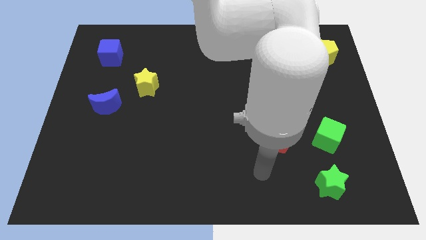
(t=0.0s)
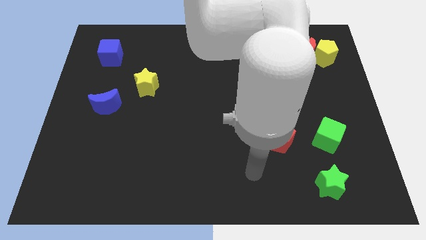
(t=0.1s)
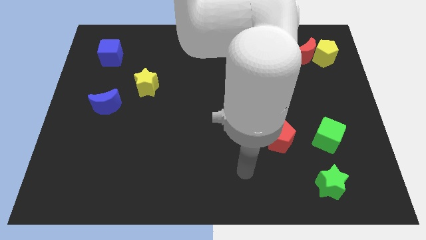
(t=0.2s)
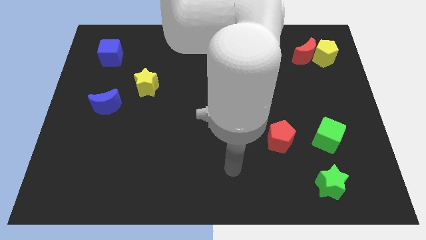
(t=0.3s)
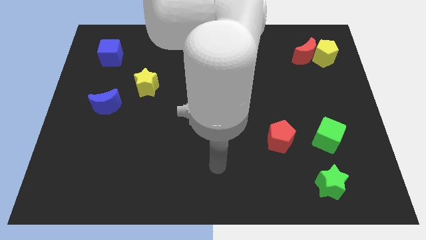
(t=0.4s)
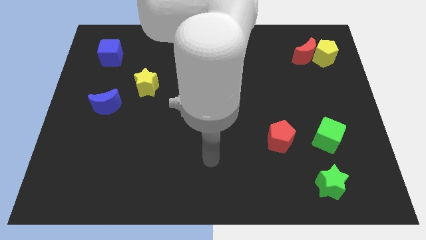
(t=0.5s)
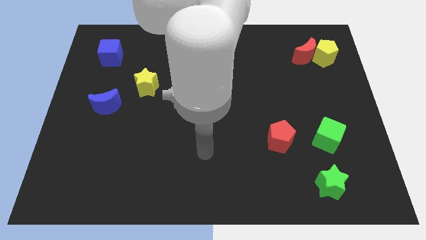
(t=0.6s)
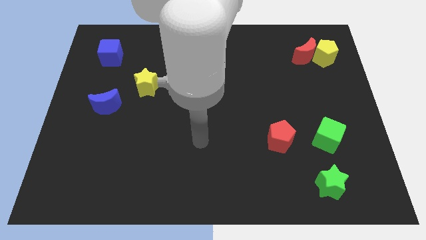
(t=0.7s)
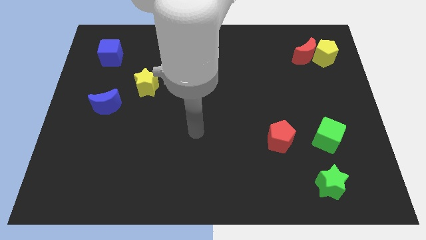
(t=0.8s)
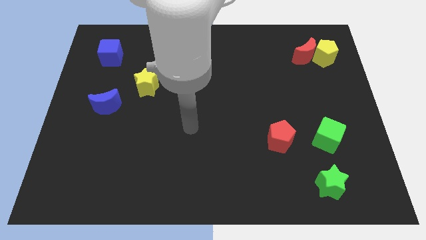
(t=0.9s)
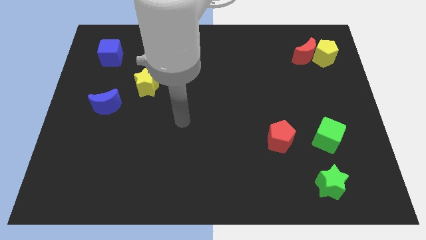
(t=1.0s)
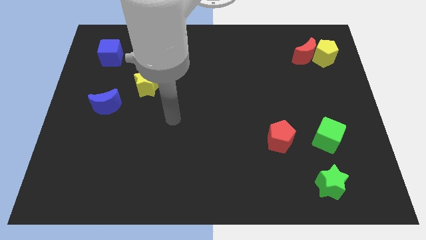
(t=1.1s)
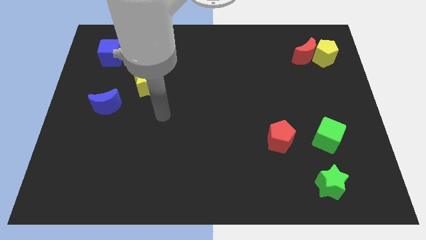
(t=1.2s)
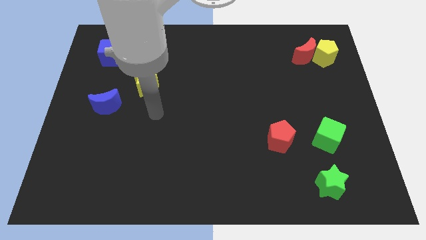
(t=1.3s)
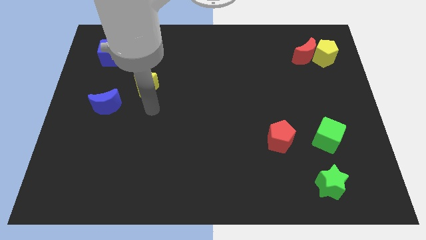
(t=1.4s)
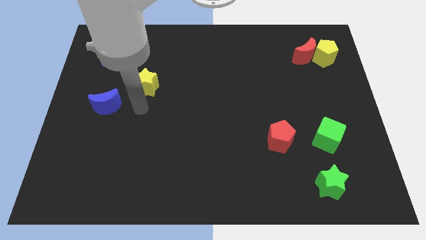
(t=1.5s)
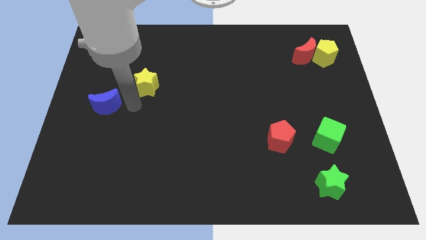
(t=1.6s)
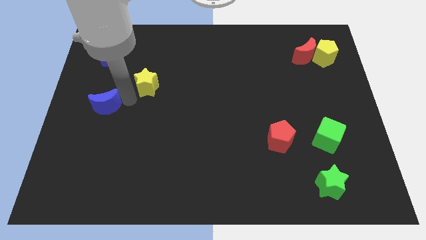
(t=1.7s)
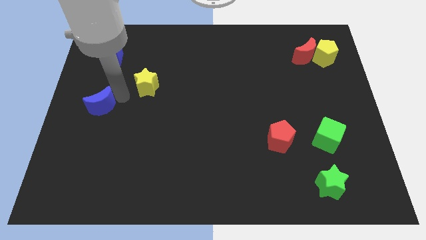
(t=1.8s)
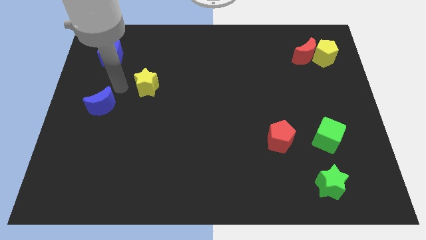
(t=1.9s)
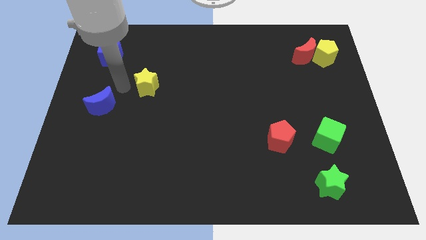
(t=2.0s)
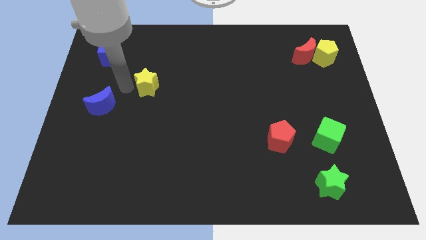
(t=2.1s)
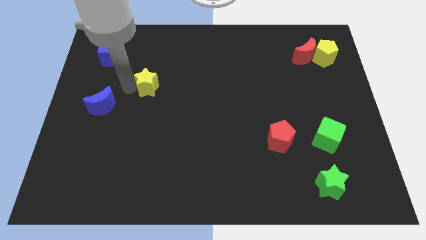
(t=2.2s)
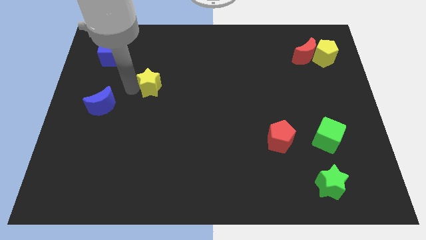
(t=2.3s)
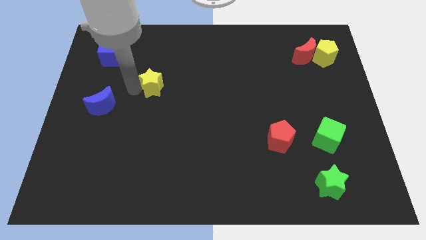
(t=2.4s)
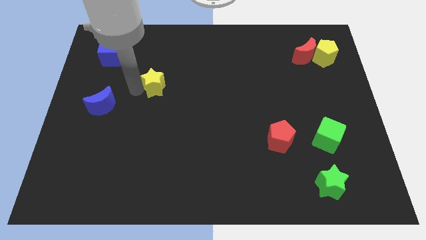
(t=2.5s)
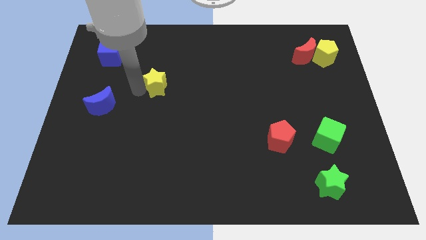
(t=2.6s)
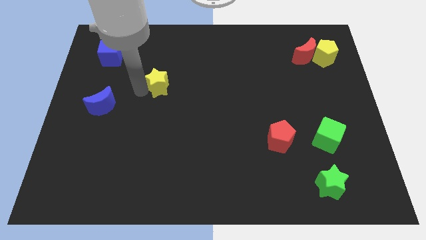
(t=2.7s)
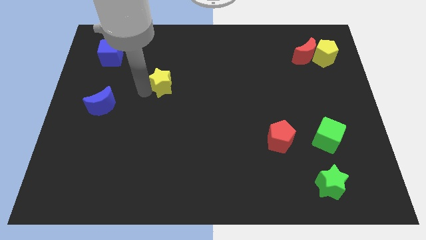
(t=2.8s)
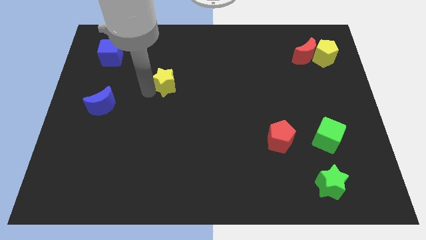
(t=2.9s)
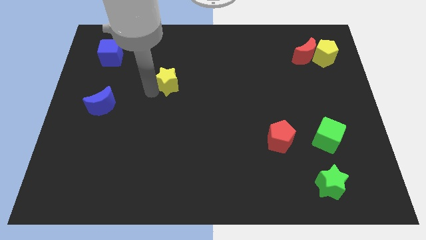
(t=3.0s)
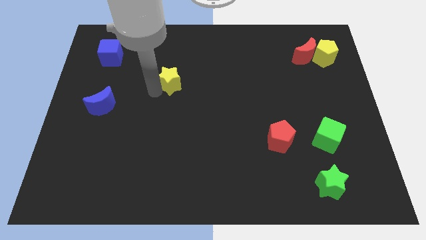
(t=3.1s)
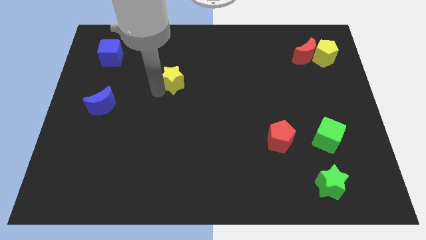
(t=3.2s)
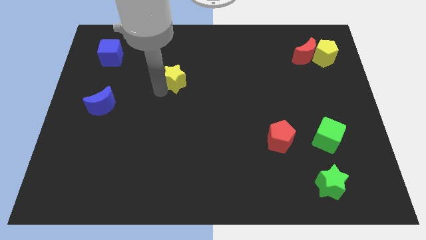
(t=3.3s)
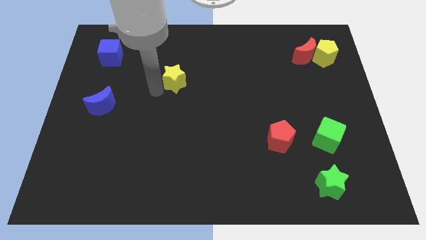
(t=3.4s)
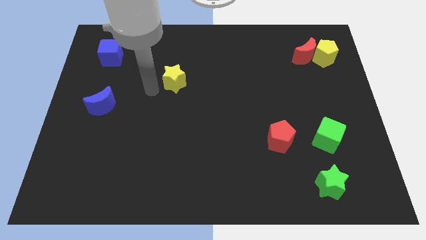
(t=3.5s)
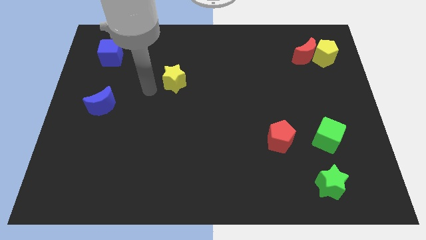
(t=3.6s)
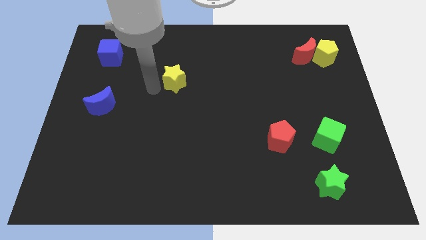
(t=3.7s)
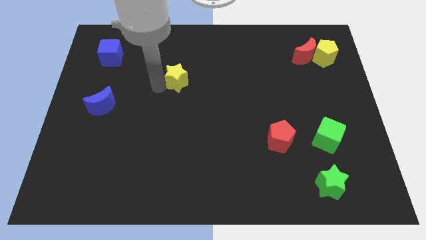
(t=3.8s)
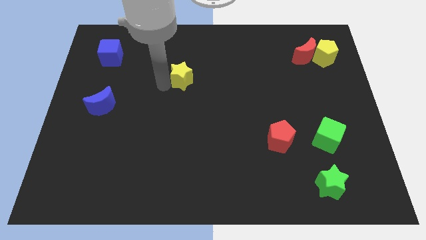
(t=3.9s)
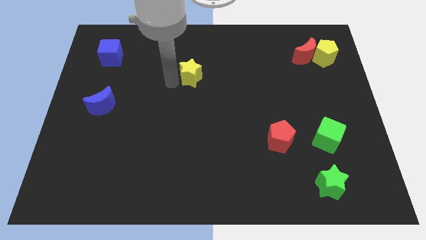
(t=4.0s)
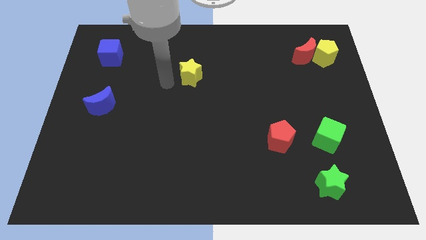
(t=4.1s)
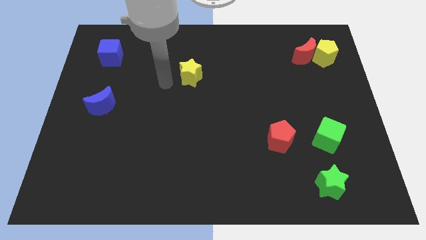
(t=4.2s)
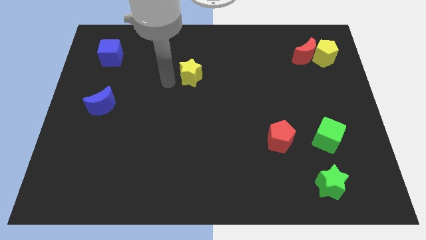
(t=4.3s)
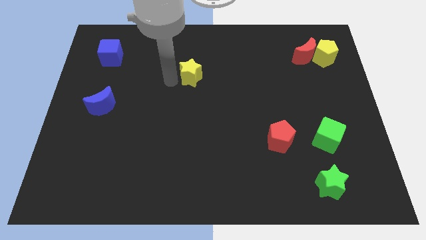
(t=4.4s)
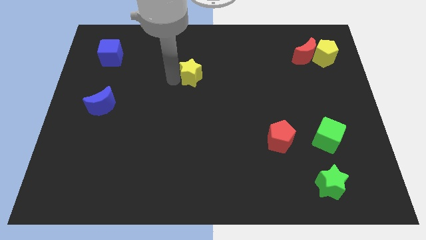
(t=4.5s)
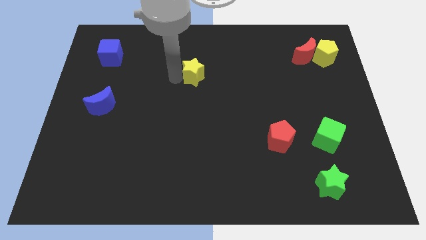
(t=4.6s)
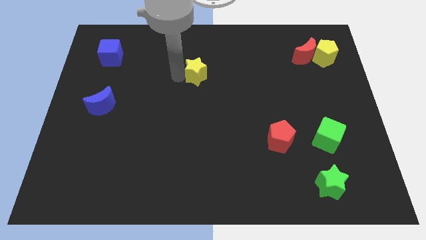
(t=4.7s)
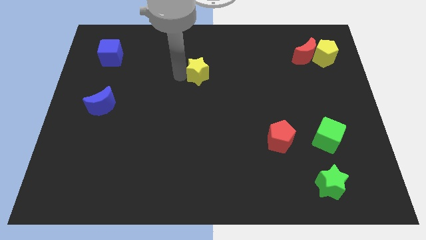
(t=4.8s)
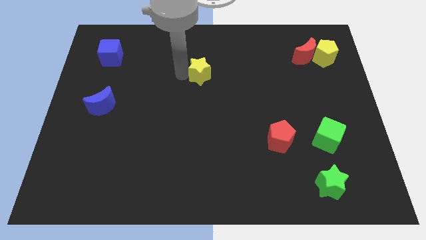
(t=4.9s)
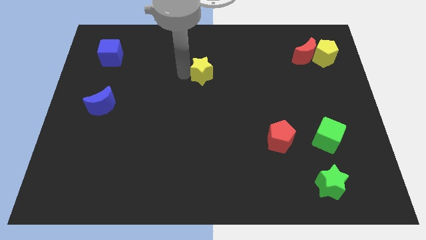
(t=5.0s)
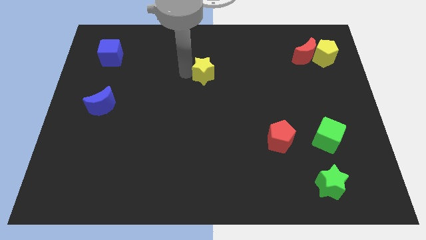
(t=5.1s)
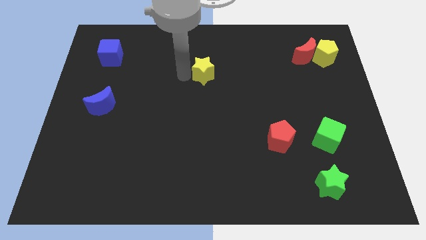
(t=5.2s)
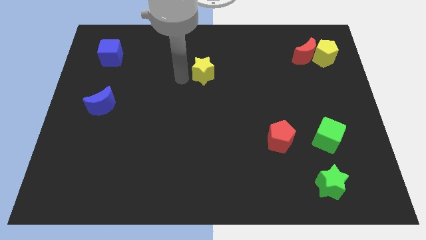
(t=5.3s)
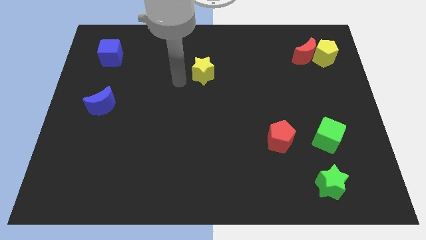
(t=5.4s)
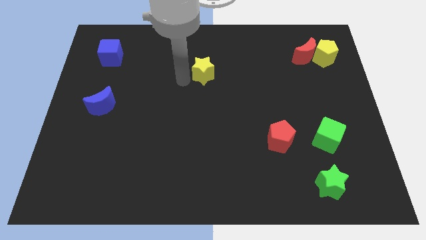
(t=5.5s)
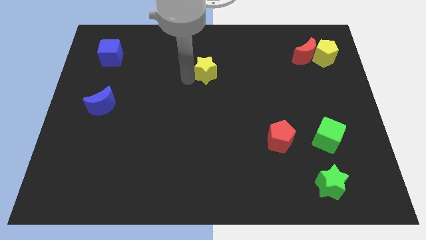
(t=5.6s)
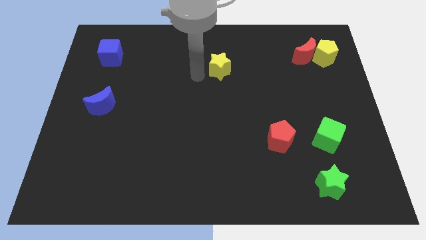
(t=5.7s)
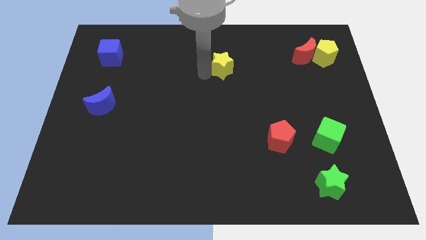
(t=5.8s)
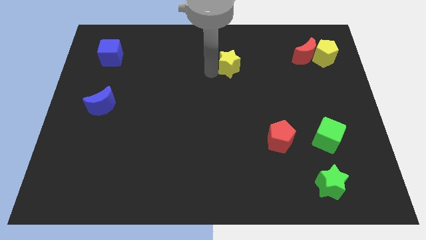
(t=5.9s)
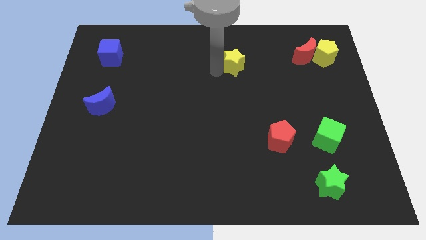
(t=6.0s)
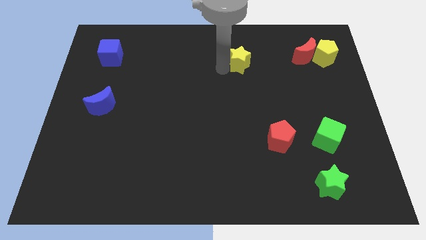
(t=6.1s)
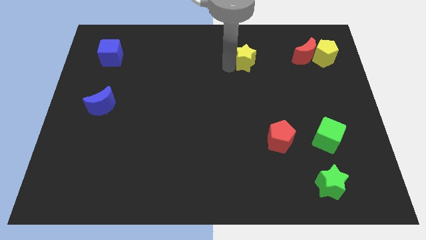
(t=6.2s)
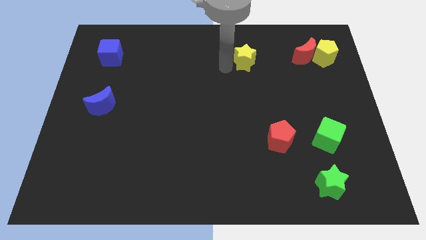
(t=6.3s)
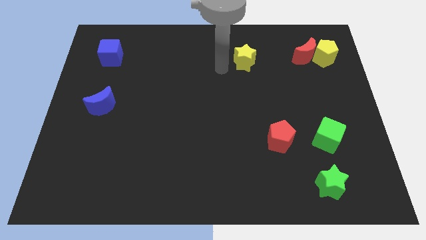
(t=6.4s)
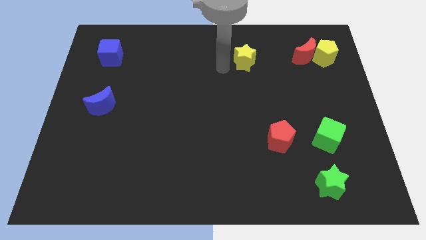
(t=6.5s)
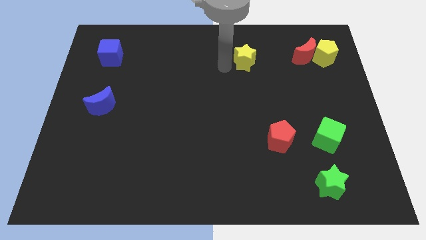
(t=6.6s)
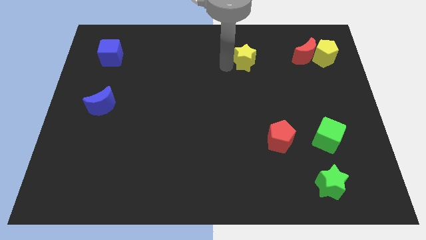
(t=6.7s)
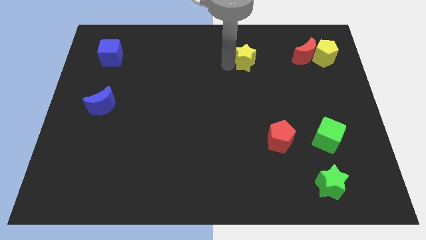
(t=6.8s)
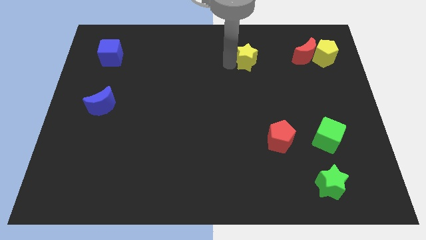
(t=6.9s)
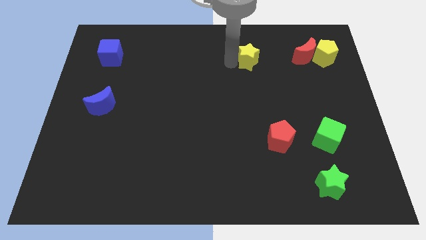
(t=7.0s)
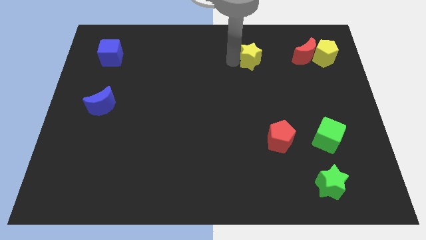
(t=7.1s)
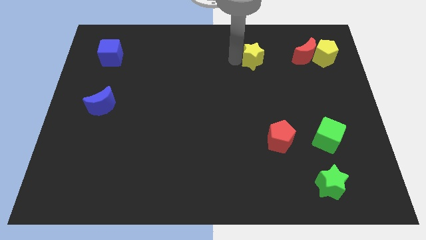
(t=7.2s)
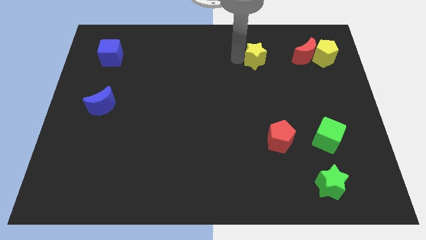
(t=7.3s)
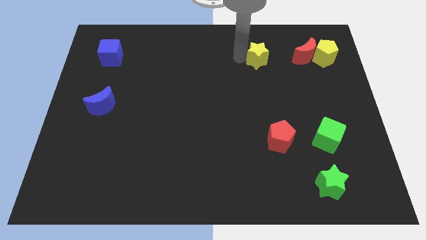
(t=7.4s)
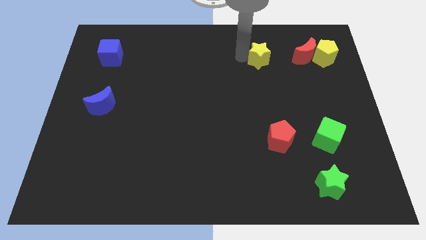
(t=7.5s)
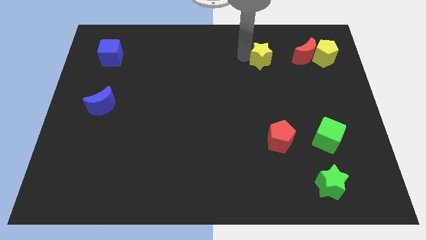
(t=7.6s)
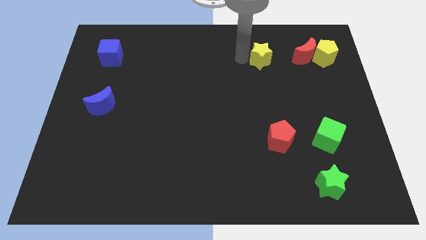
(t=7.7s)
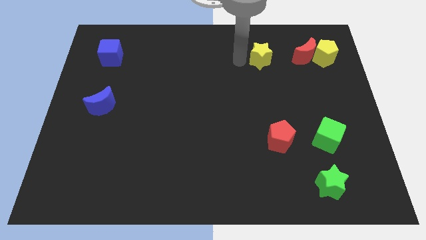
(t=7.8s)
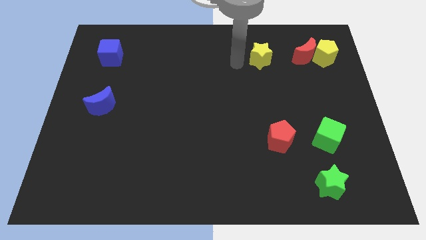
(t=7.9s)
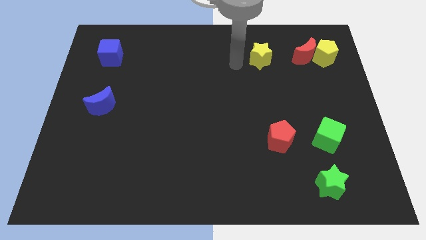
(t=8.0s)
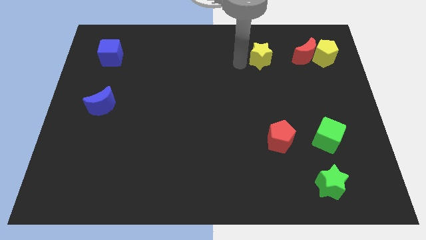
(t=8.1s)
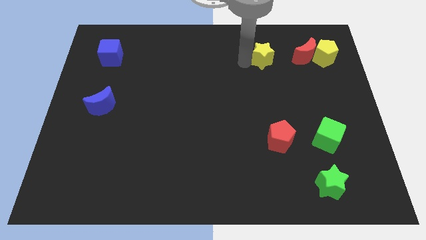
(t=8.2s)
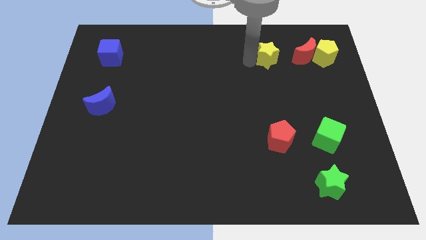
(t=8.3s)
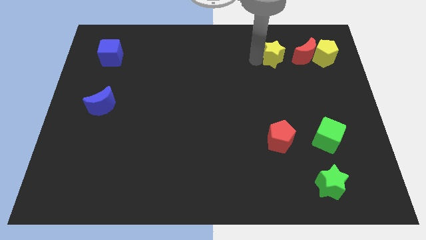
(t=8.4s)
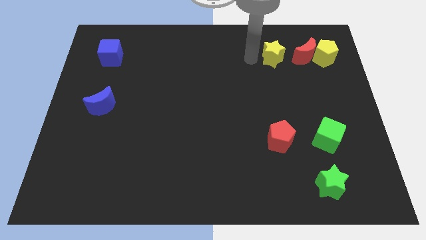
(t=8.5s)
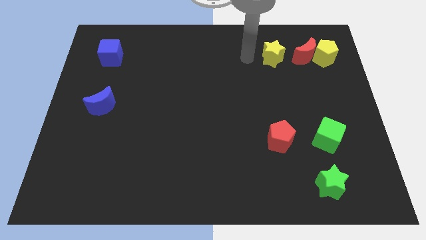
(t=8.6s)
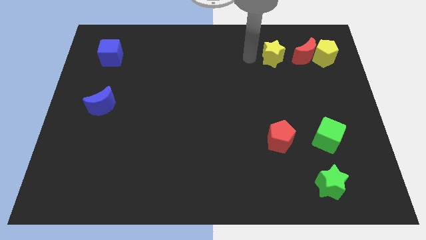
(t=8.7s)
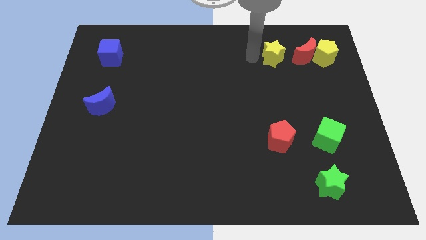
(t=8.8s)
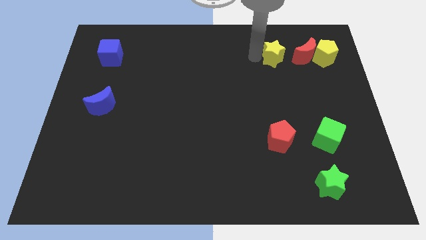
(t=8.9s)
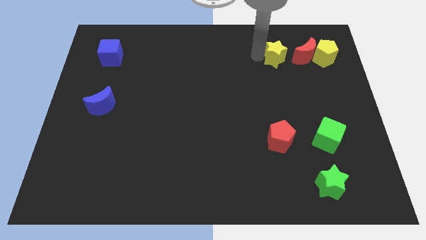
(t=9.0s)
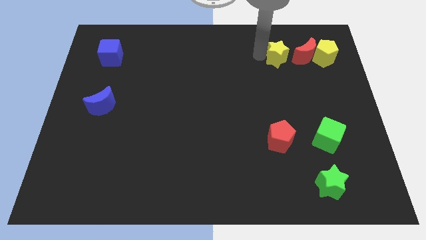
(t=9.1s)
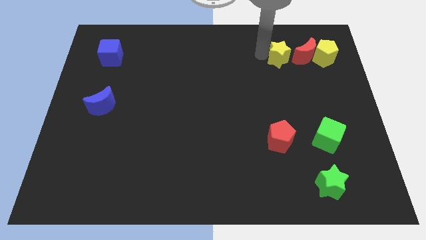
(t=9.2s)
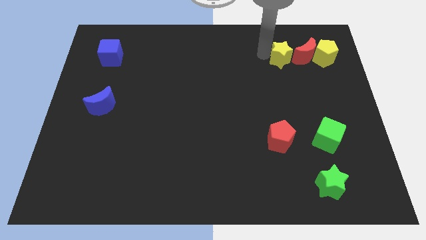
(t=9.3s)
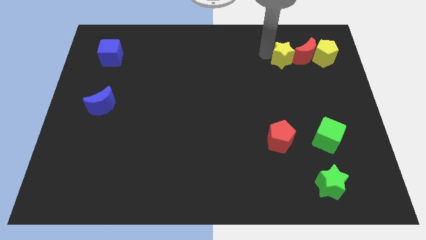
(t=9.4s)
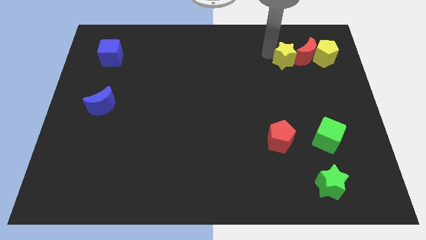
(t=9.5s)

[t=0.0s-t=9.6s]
move the yellow star close to the red moon
